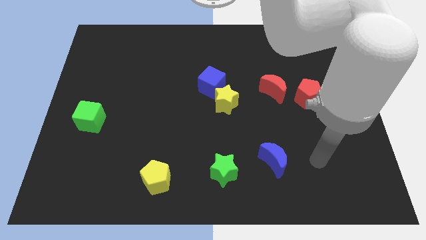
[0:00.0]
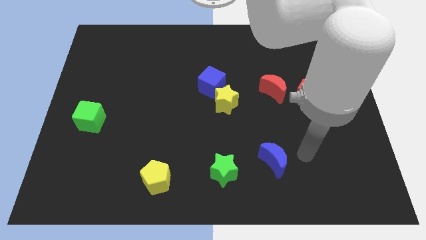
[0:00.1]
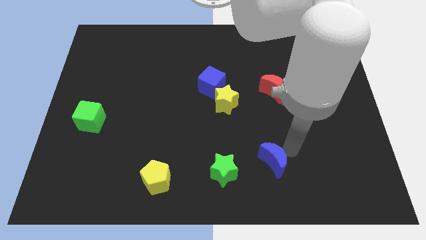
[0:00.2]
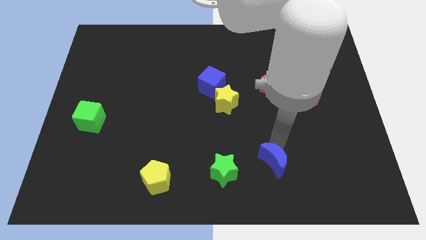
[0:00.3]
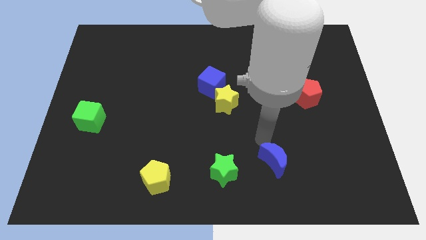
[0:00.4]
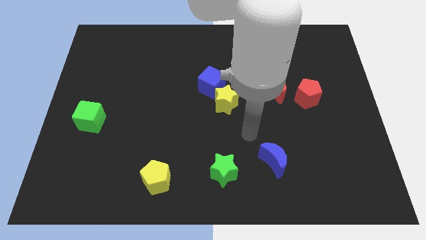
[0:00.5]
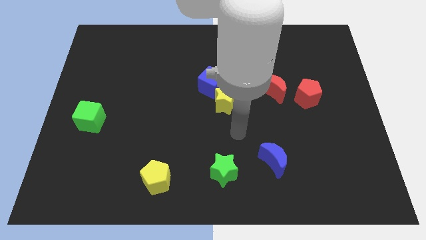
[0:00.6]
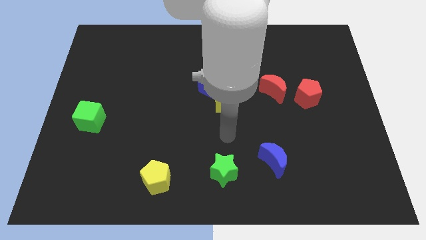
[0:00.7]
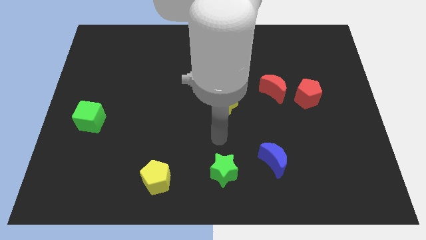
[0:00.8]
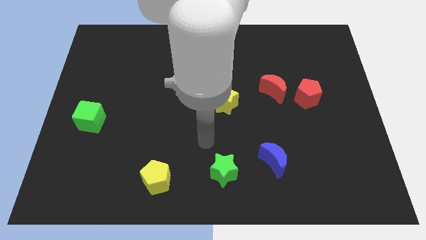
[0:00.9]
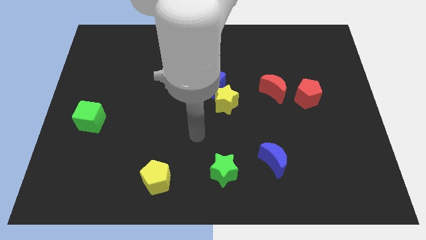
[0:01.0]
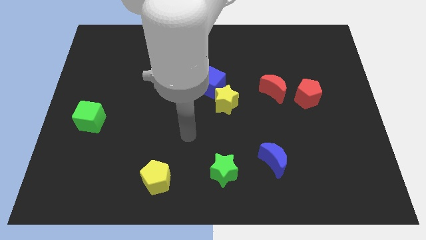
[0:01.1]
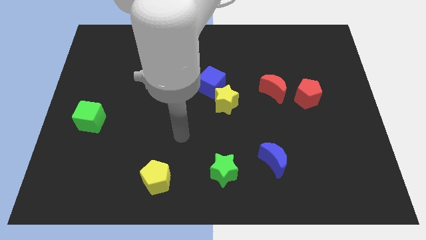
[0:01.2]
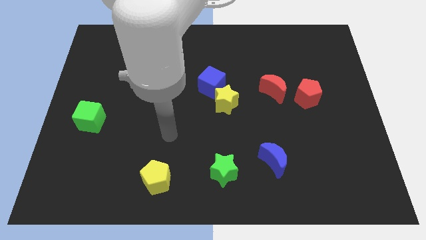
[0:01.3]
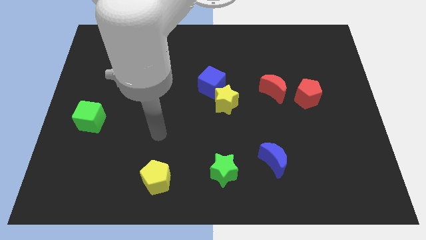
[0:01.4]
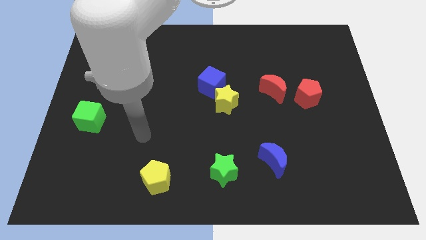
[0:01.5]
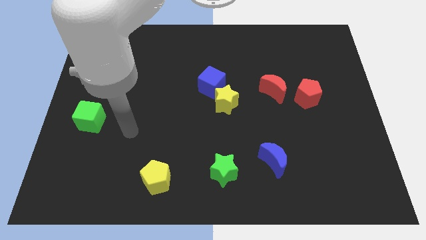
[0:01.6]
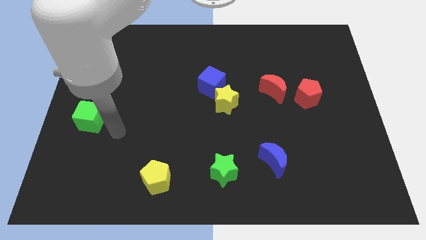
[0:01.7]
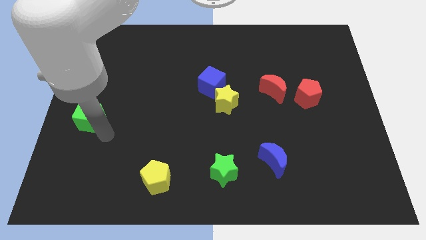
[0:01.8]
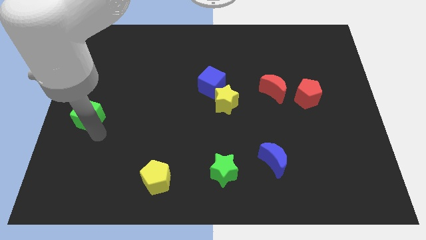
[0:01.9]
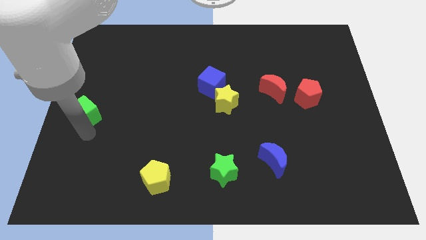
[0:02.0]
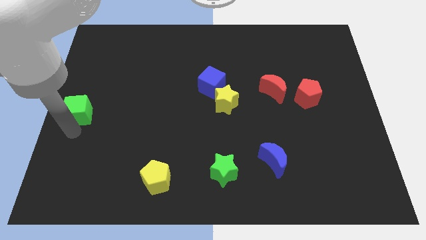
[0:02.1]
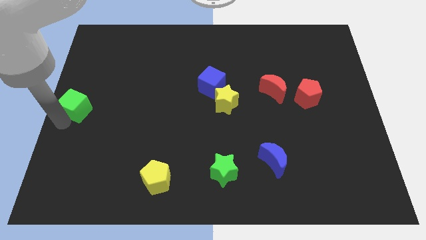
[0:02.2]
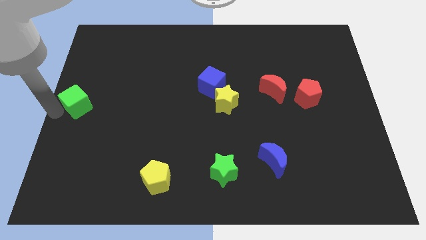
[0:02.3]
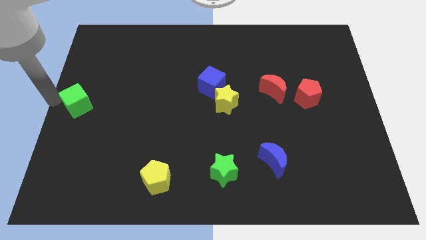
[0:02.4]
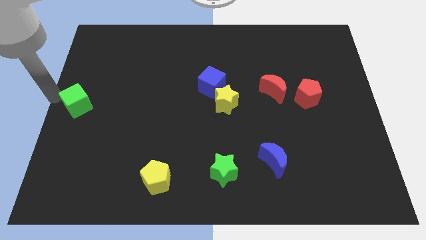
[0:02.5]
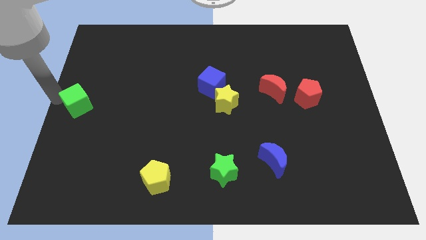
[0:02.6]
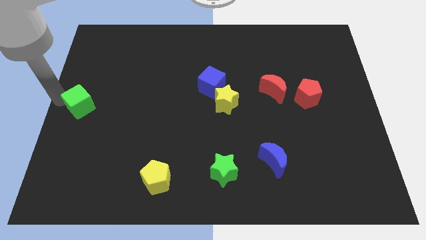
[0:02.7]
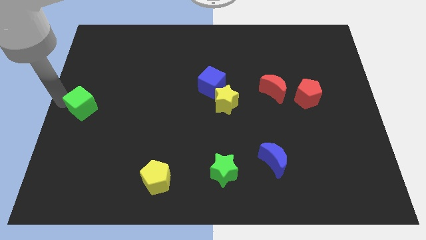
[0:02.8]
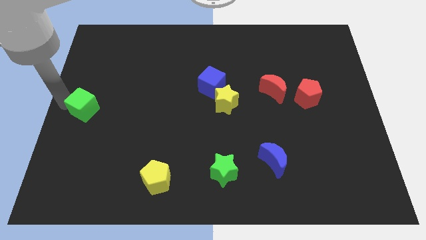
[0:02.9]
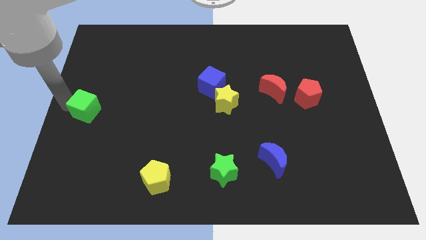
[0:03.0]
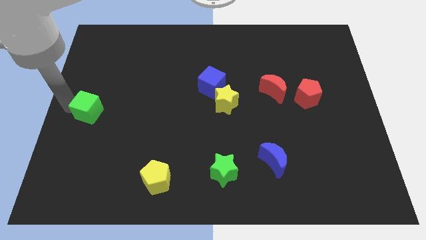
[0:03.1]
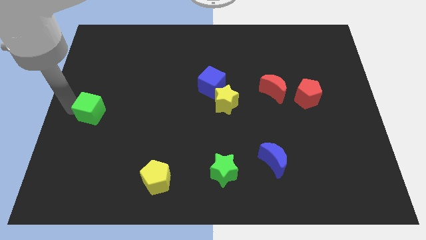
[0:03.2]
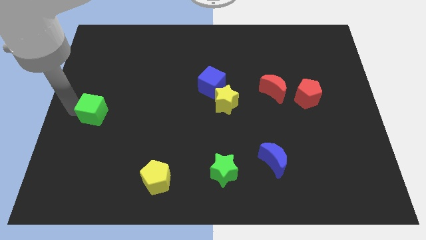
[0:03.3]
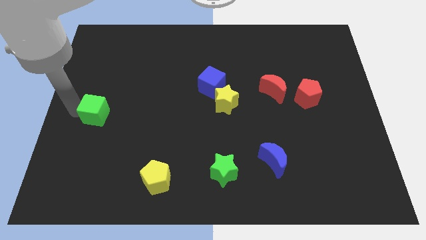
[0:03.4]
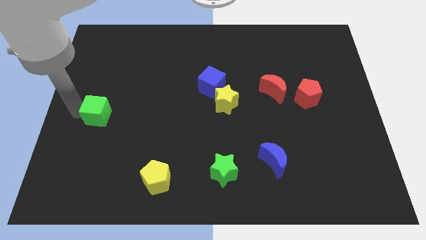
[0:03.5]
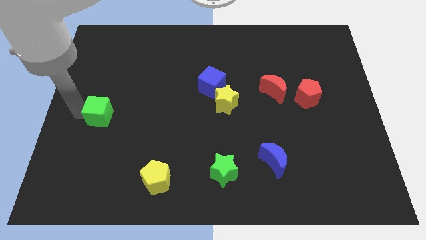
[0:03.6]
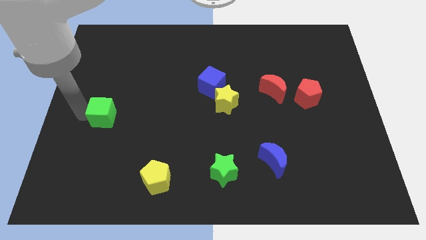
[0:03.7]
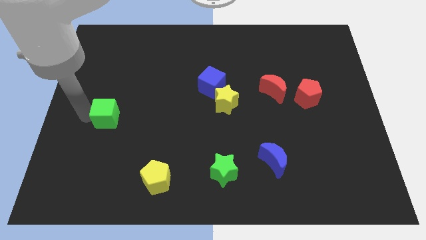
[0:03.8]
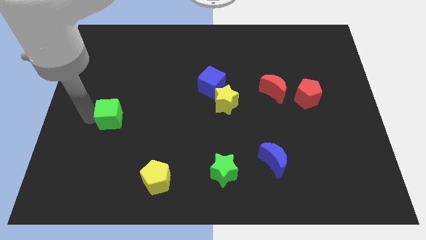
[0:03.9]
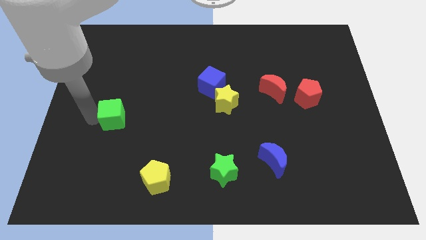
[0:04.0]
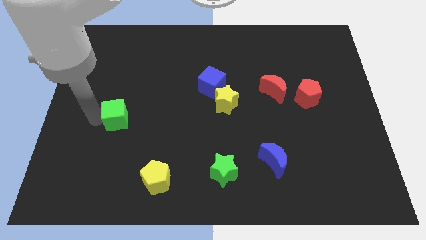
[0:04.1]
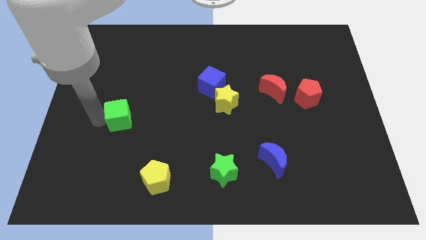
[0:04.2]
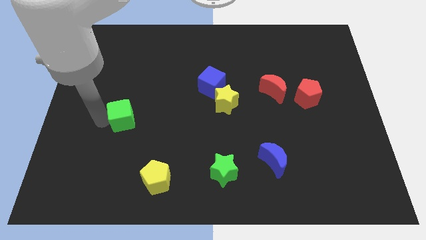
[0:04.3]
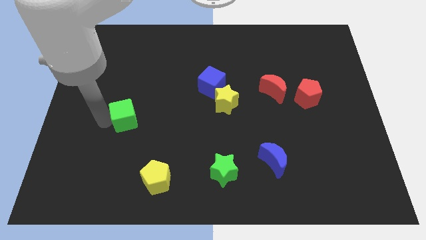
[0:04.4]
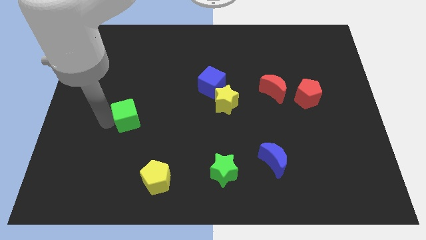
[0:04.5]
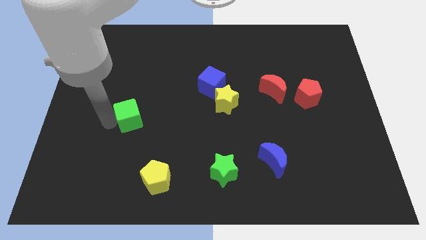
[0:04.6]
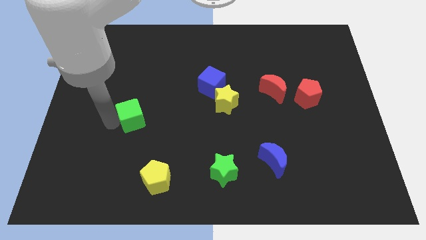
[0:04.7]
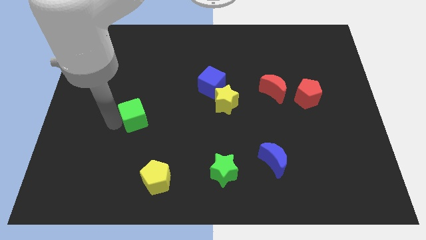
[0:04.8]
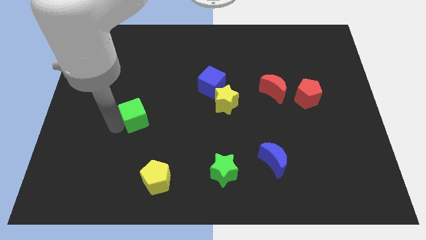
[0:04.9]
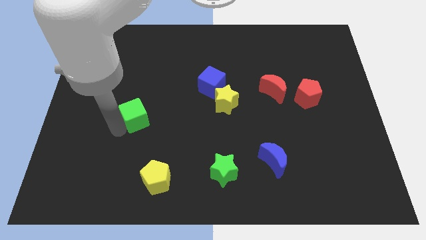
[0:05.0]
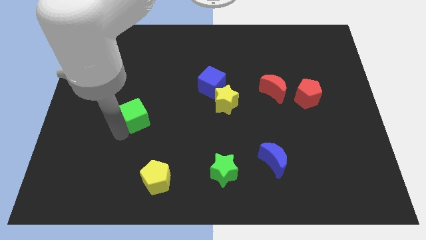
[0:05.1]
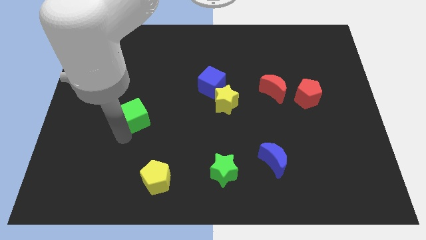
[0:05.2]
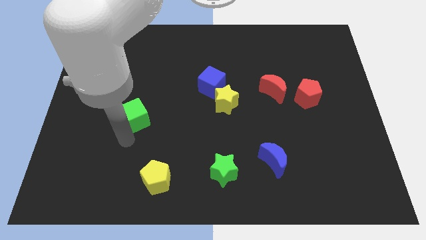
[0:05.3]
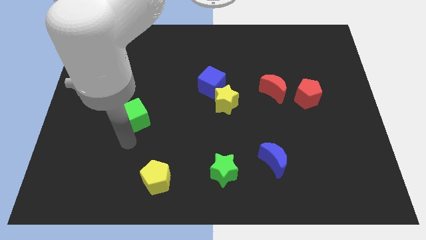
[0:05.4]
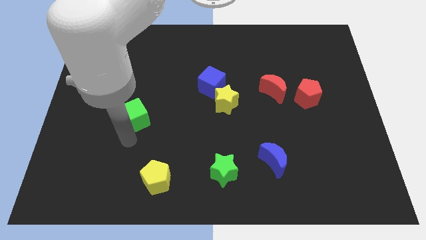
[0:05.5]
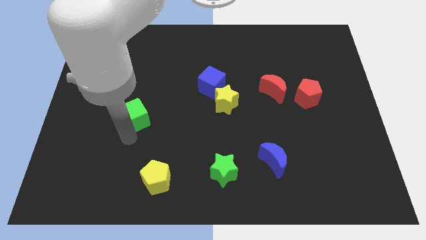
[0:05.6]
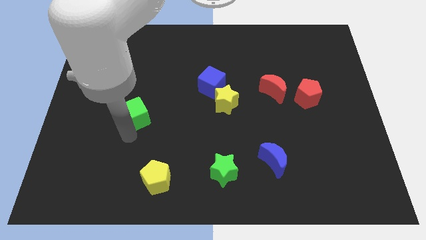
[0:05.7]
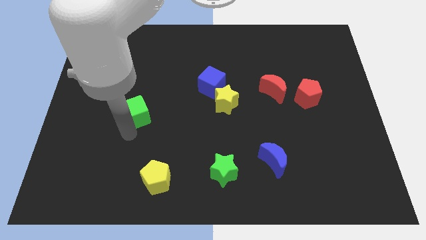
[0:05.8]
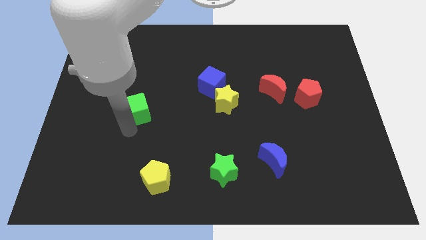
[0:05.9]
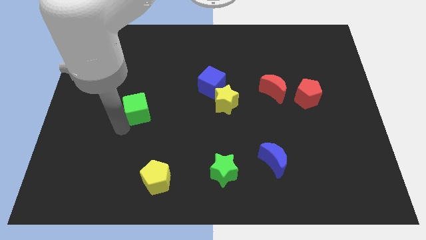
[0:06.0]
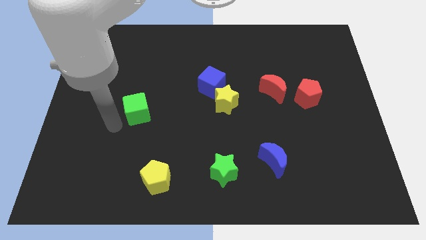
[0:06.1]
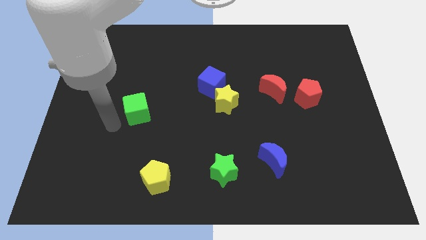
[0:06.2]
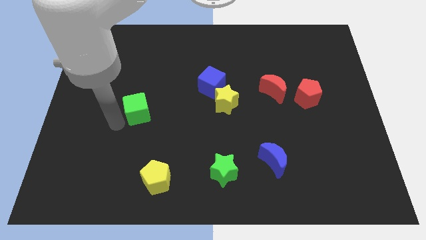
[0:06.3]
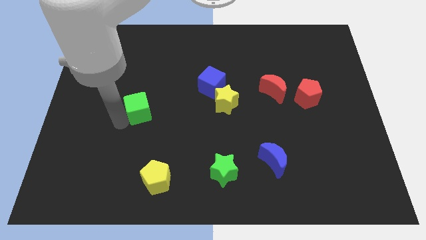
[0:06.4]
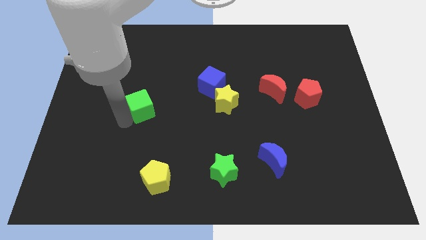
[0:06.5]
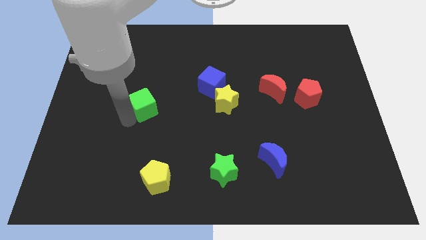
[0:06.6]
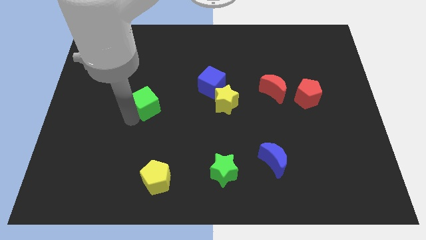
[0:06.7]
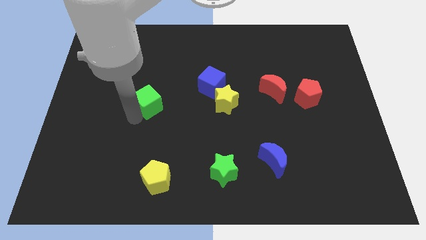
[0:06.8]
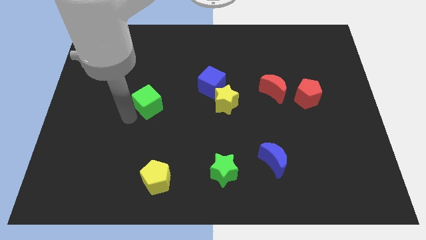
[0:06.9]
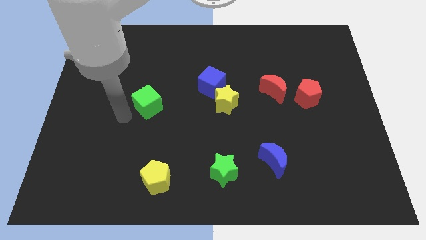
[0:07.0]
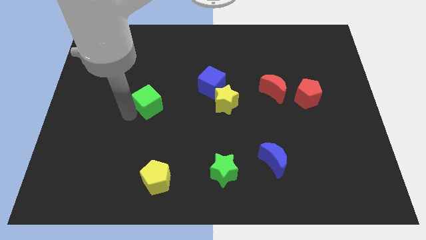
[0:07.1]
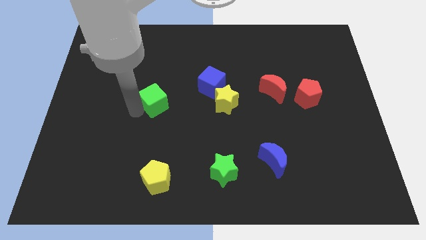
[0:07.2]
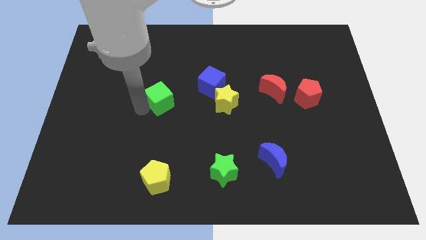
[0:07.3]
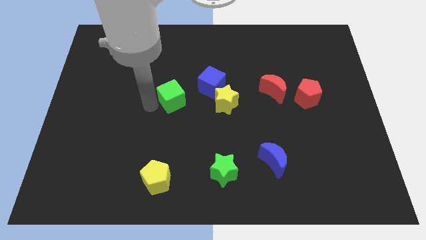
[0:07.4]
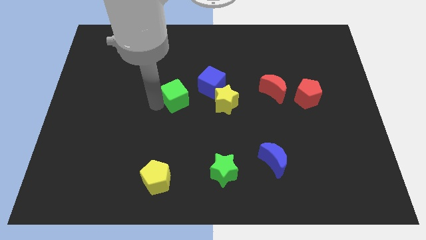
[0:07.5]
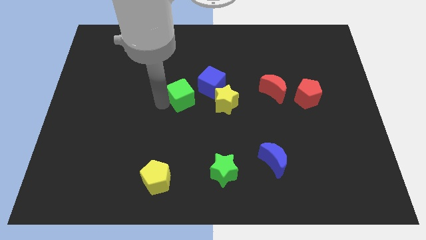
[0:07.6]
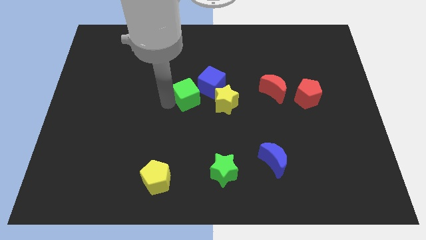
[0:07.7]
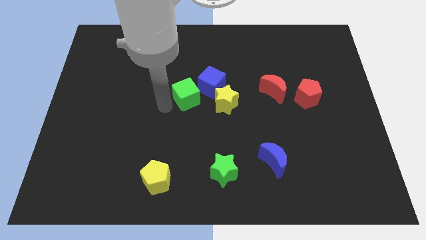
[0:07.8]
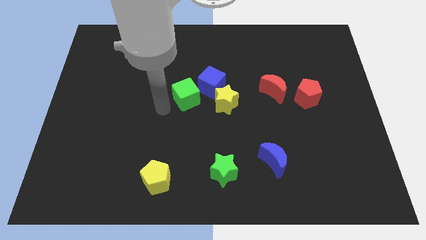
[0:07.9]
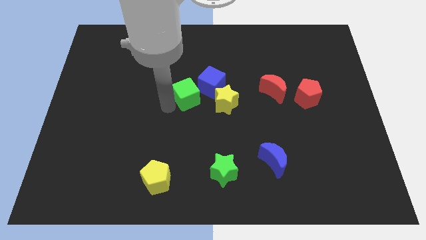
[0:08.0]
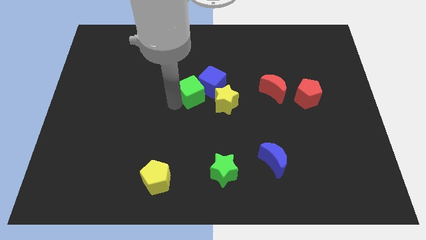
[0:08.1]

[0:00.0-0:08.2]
push the green cube close to the blue cube
